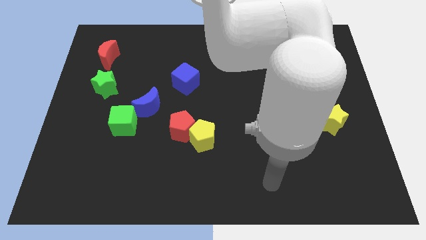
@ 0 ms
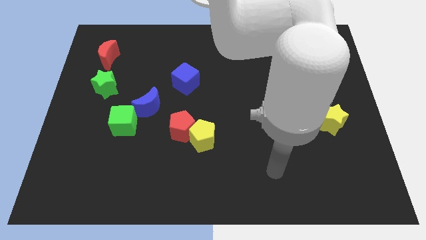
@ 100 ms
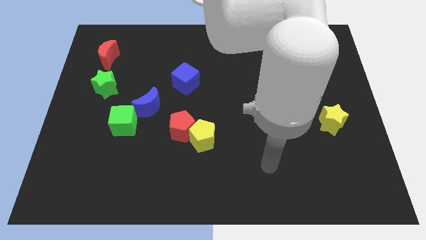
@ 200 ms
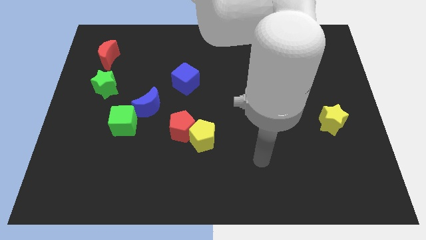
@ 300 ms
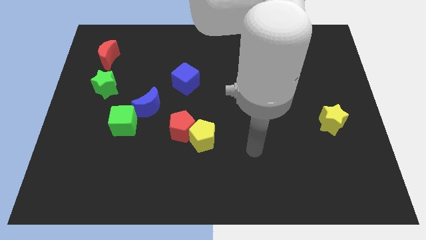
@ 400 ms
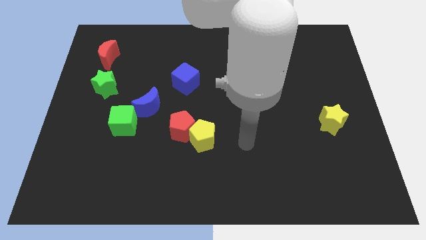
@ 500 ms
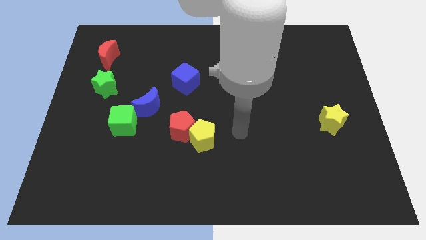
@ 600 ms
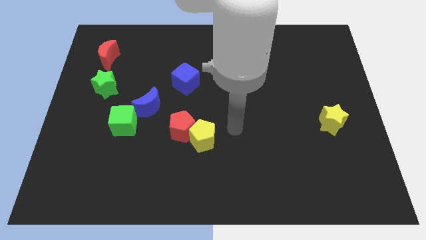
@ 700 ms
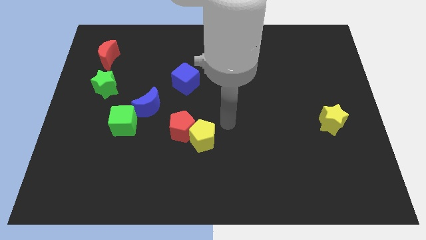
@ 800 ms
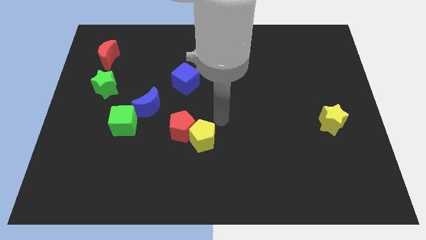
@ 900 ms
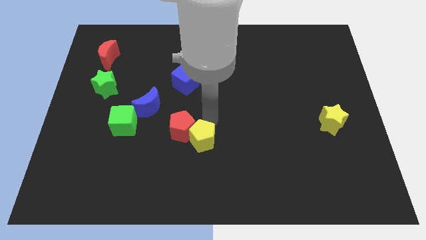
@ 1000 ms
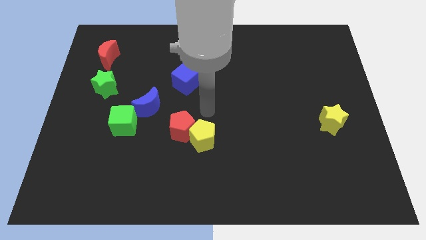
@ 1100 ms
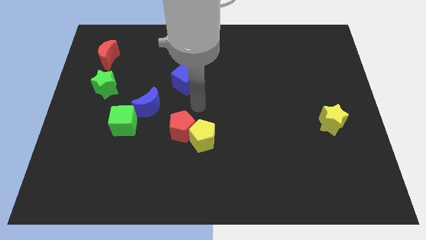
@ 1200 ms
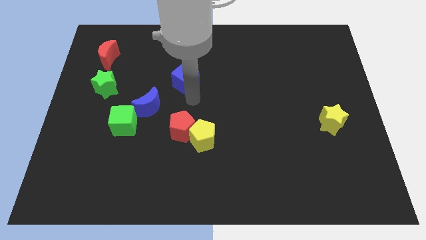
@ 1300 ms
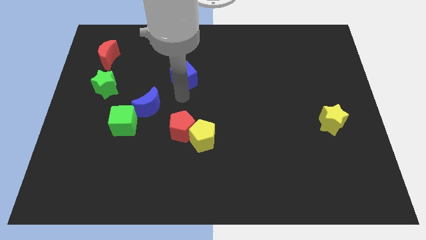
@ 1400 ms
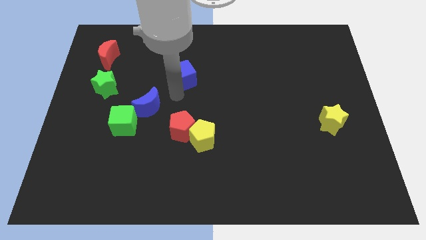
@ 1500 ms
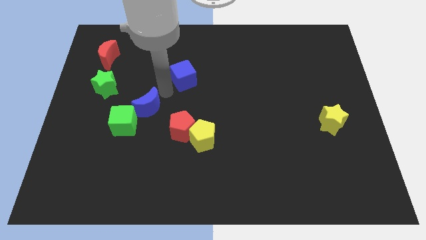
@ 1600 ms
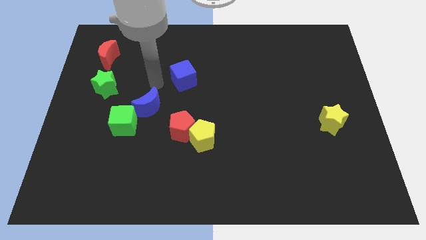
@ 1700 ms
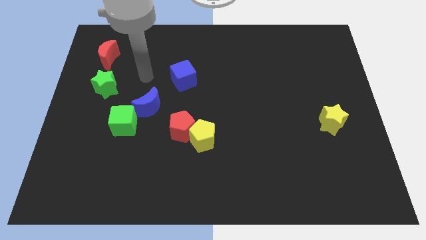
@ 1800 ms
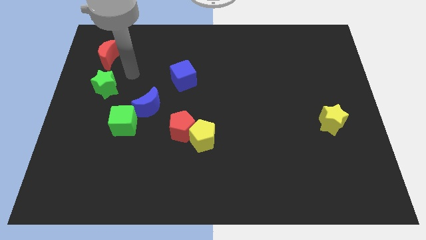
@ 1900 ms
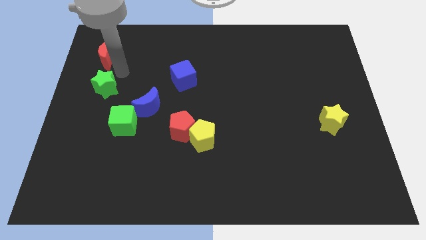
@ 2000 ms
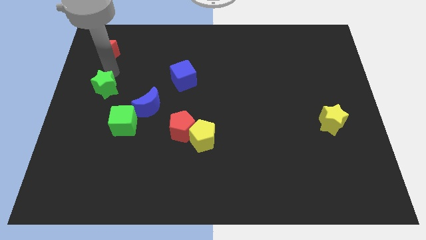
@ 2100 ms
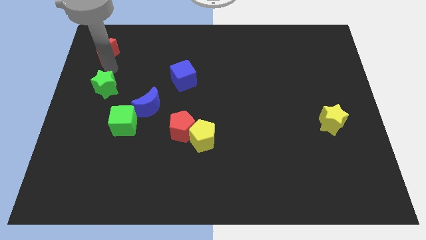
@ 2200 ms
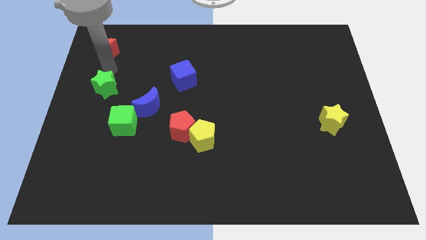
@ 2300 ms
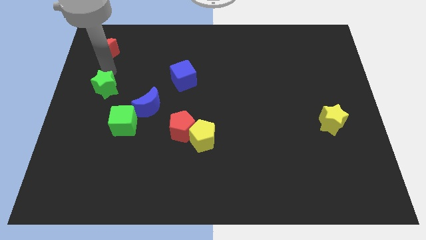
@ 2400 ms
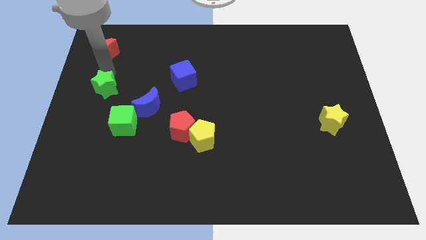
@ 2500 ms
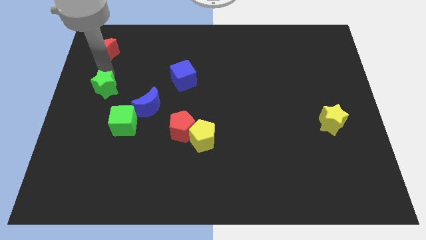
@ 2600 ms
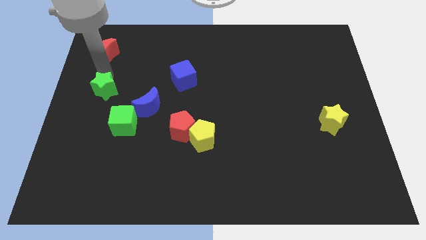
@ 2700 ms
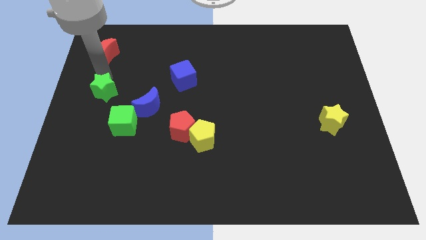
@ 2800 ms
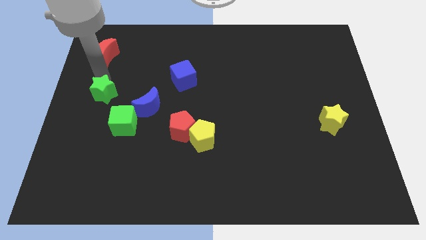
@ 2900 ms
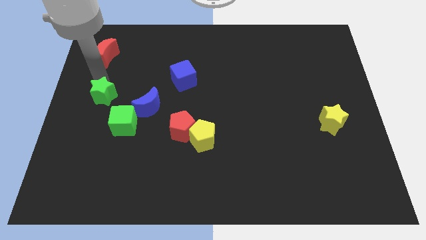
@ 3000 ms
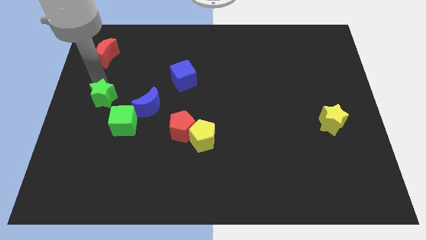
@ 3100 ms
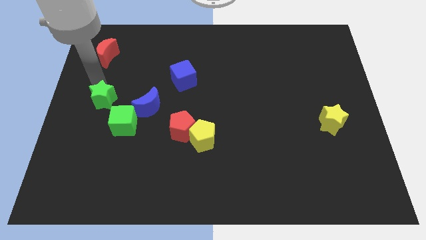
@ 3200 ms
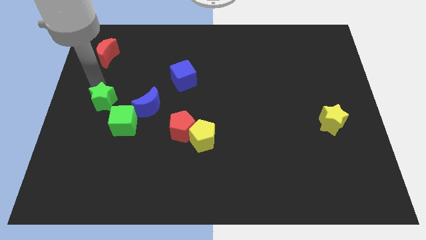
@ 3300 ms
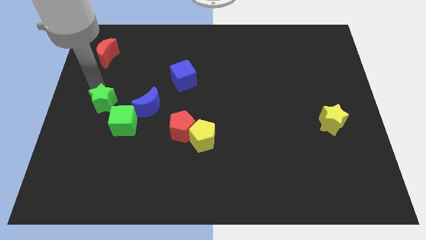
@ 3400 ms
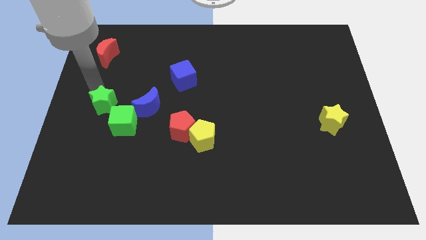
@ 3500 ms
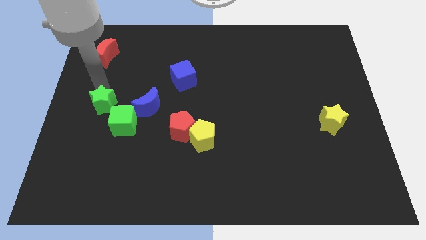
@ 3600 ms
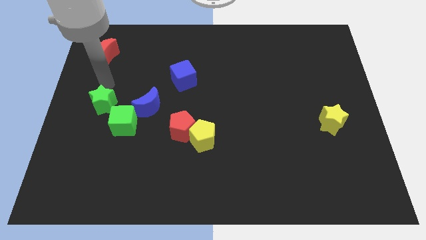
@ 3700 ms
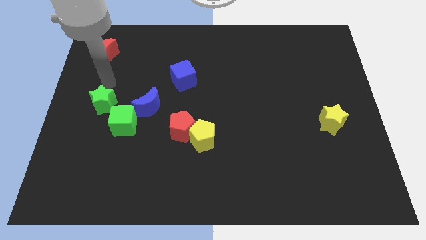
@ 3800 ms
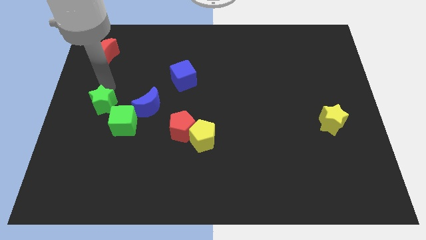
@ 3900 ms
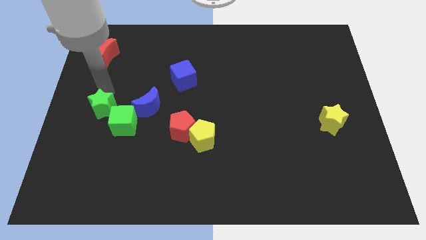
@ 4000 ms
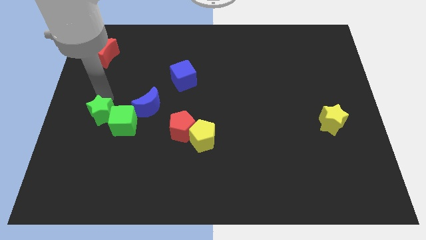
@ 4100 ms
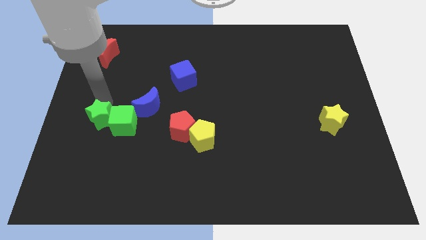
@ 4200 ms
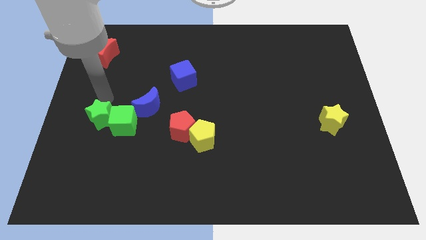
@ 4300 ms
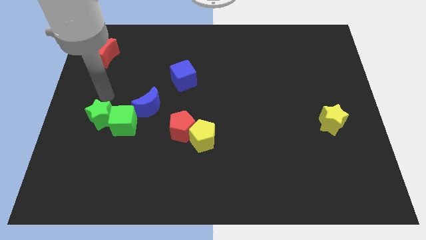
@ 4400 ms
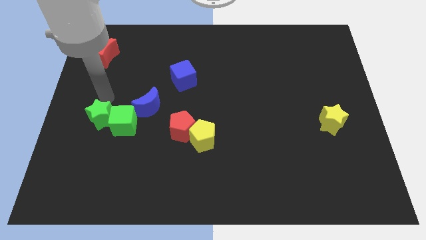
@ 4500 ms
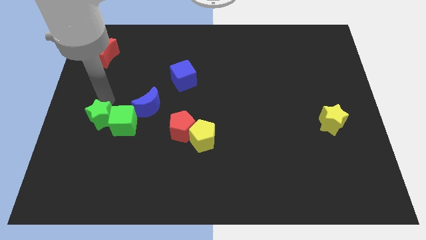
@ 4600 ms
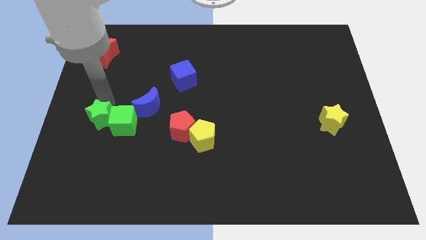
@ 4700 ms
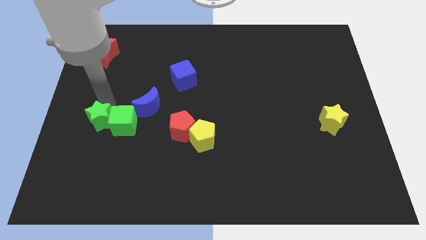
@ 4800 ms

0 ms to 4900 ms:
move the green star diagonally down and to the left of the green cube

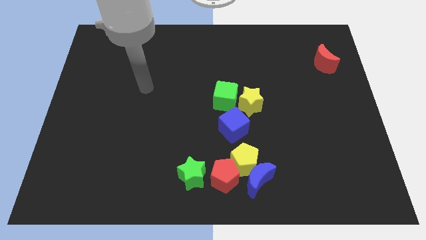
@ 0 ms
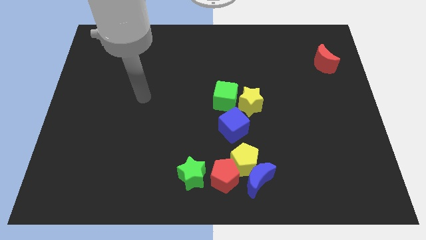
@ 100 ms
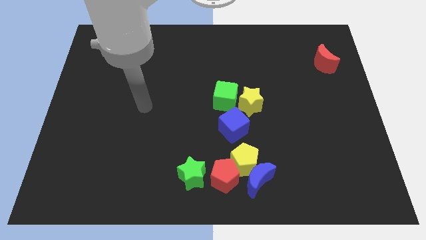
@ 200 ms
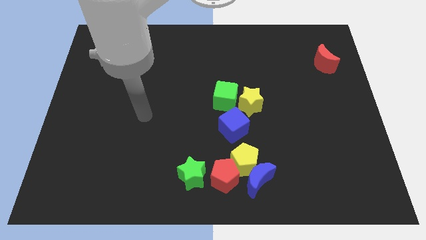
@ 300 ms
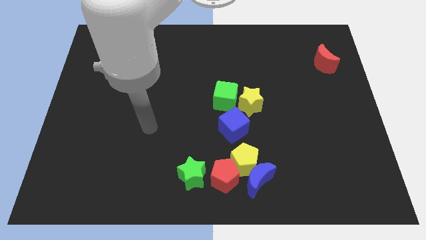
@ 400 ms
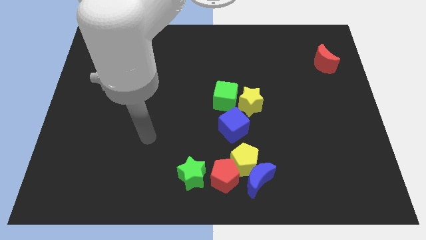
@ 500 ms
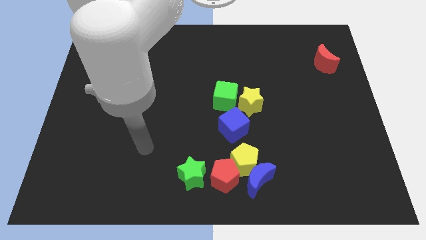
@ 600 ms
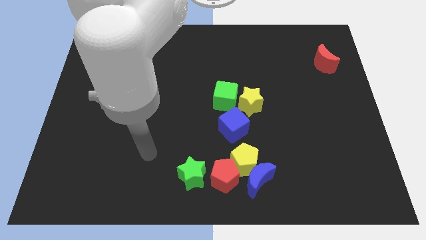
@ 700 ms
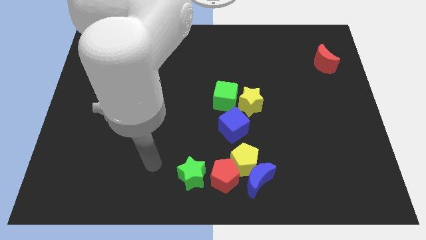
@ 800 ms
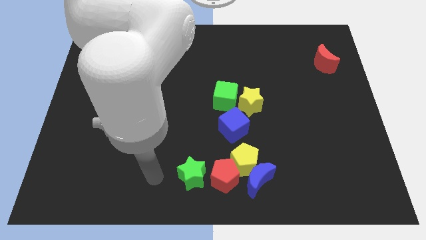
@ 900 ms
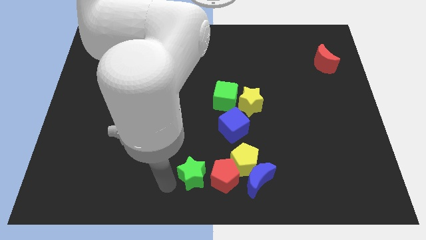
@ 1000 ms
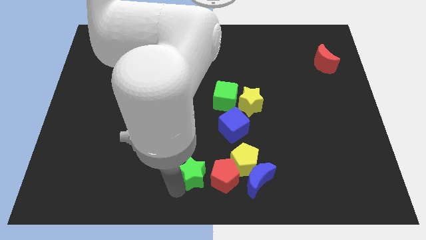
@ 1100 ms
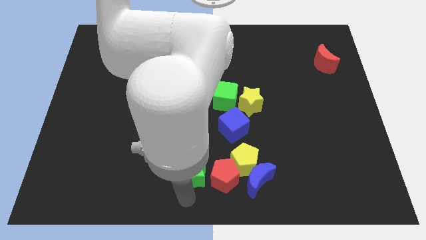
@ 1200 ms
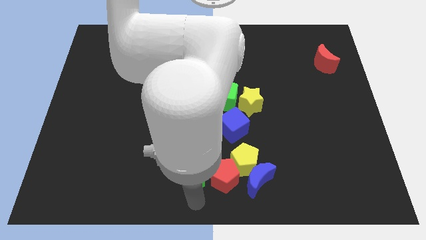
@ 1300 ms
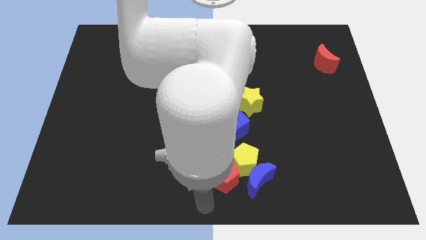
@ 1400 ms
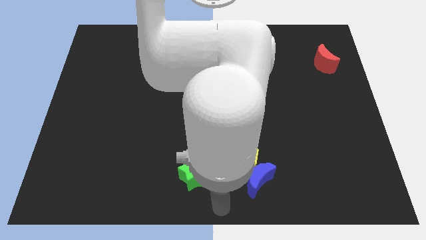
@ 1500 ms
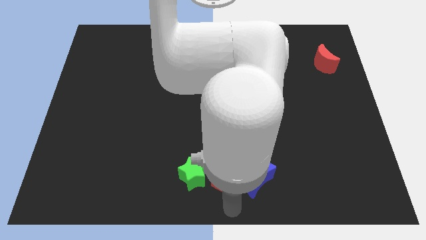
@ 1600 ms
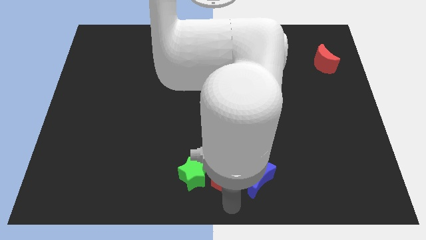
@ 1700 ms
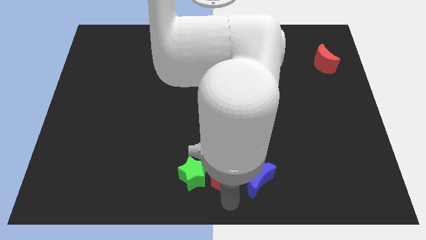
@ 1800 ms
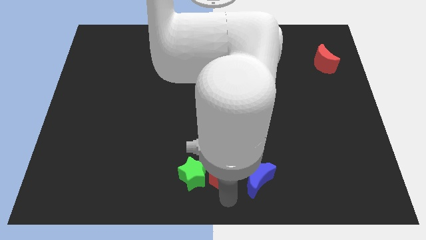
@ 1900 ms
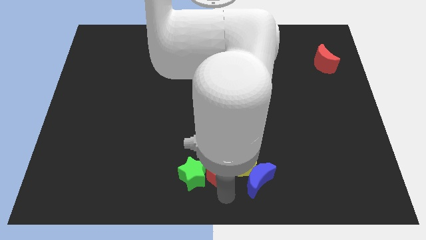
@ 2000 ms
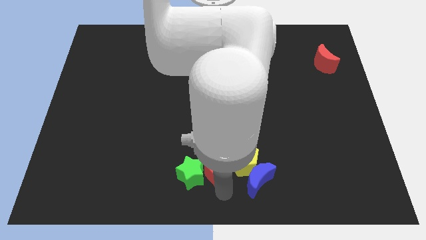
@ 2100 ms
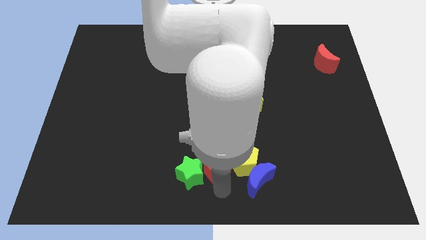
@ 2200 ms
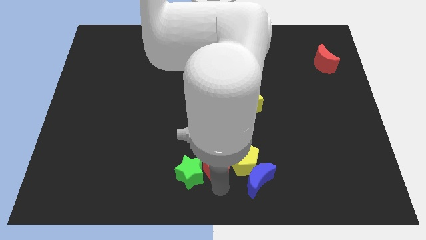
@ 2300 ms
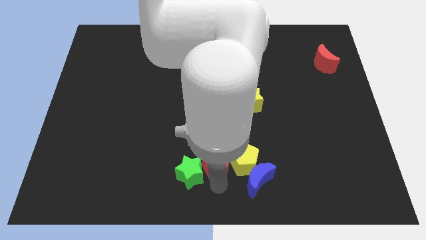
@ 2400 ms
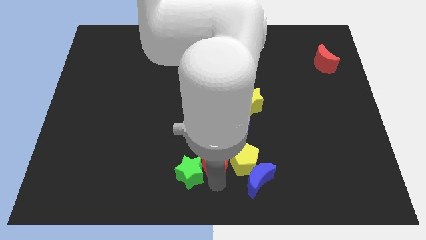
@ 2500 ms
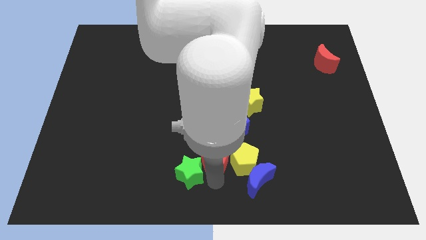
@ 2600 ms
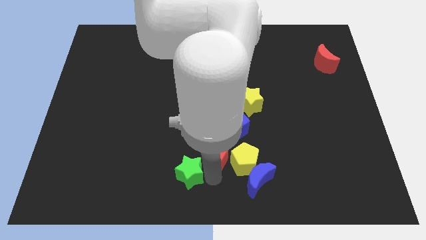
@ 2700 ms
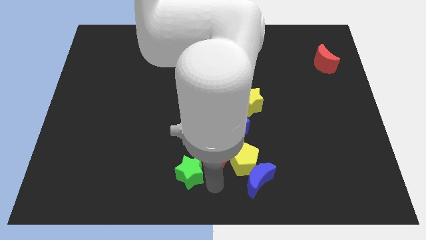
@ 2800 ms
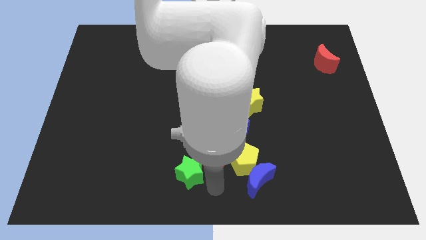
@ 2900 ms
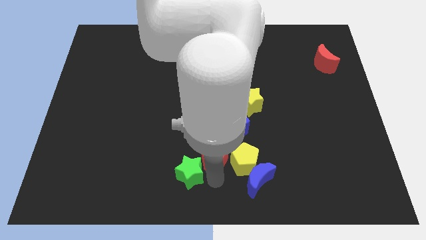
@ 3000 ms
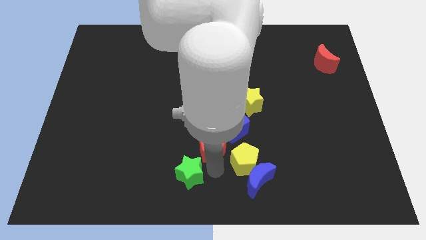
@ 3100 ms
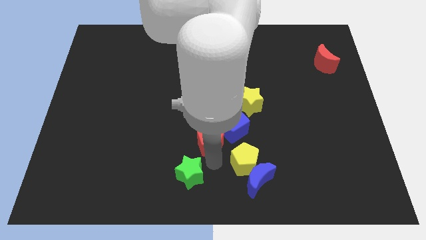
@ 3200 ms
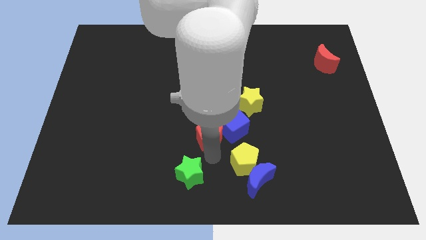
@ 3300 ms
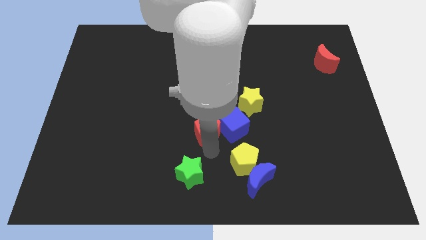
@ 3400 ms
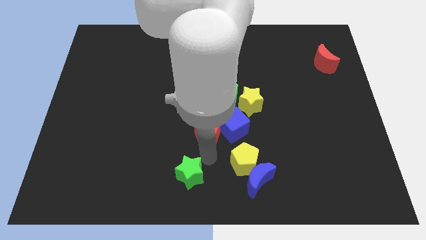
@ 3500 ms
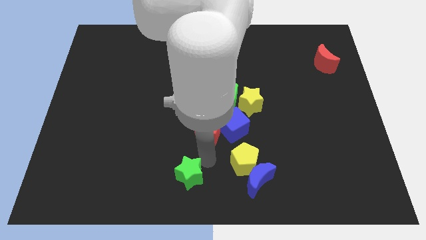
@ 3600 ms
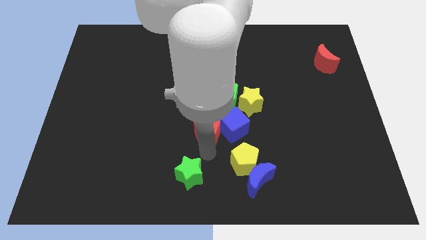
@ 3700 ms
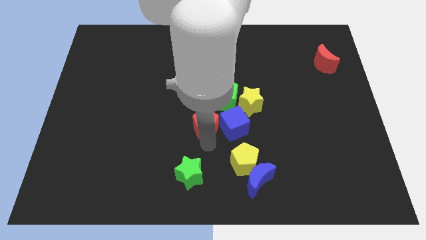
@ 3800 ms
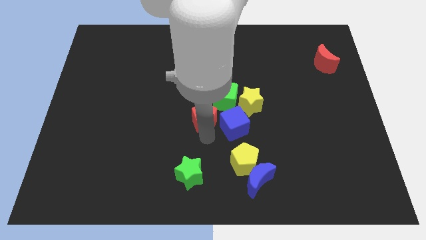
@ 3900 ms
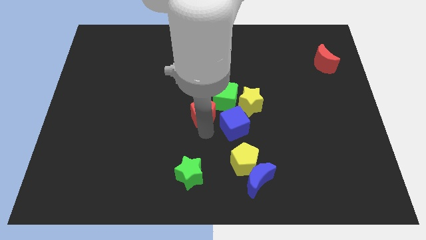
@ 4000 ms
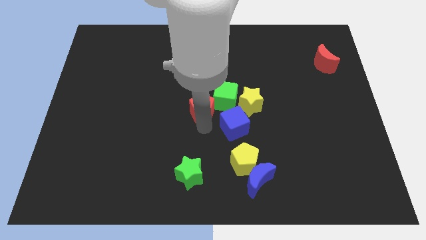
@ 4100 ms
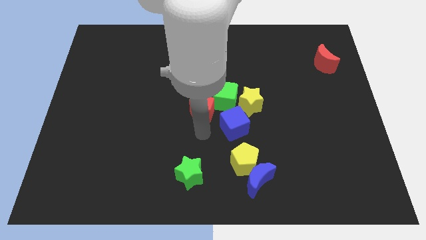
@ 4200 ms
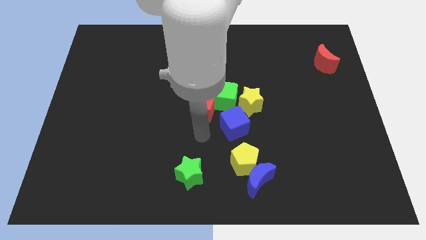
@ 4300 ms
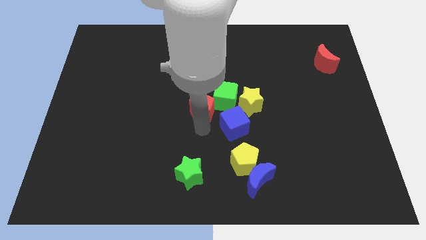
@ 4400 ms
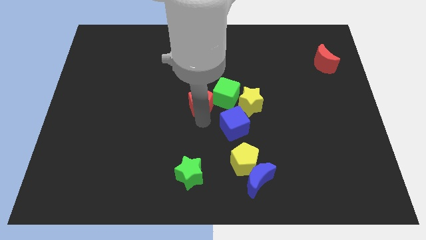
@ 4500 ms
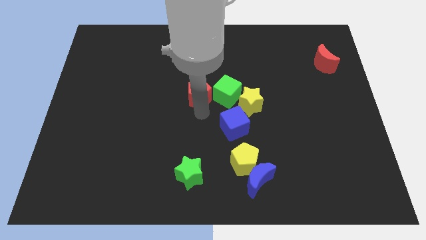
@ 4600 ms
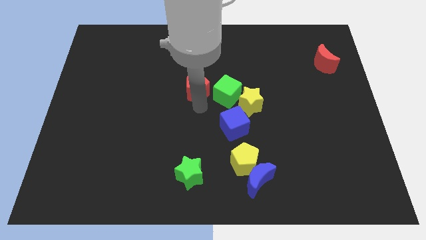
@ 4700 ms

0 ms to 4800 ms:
put the red pentagon diagonally up and to the left of the green cube
